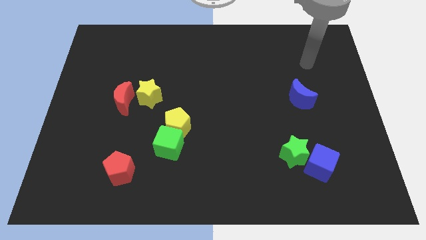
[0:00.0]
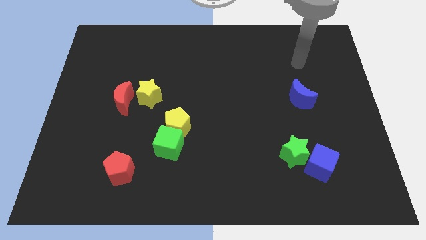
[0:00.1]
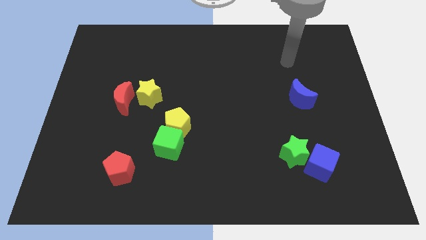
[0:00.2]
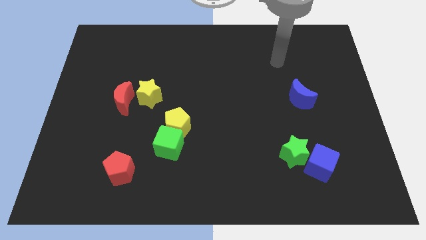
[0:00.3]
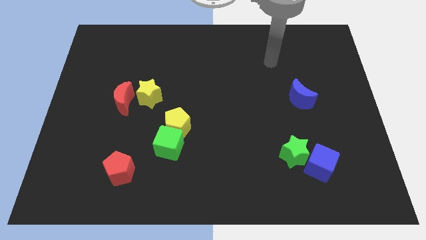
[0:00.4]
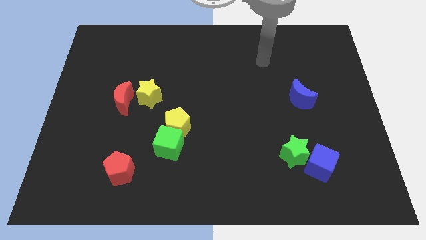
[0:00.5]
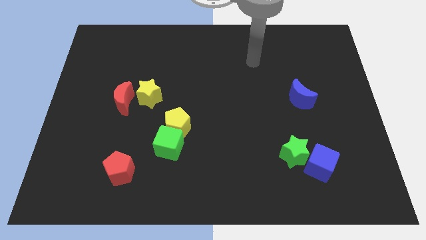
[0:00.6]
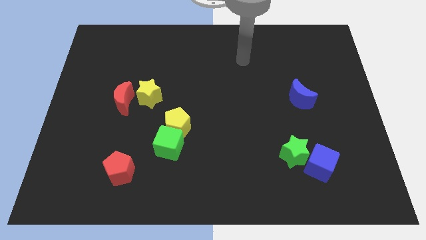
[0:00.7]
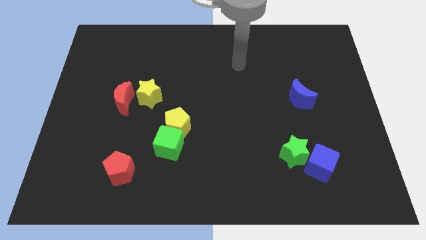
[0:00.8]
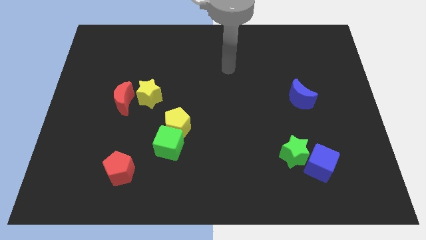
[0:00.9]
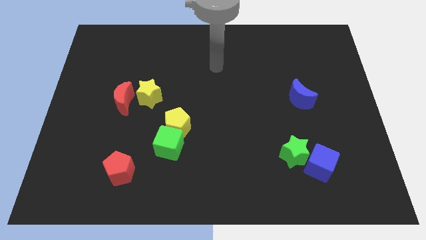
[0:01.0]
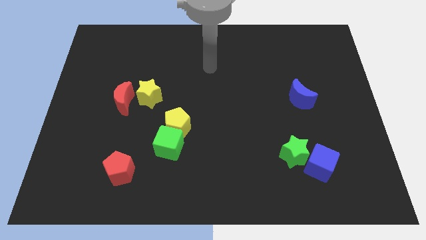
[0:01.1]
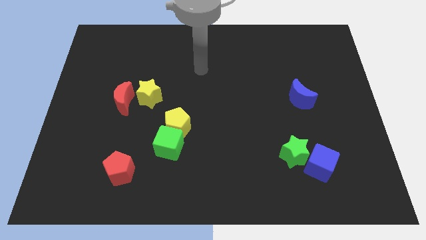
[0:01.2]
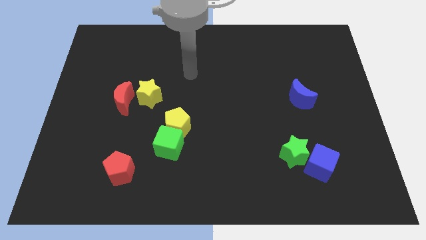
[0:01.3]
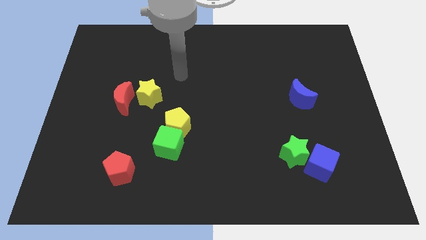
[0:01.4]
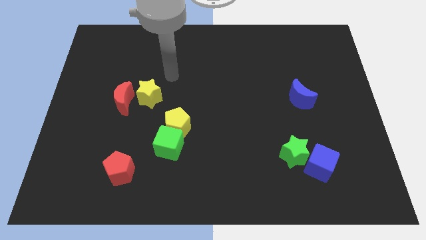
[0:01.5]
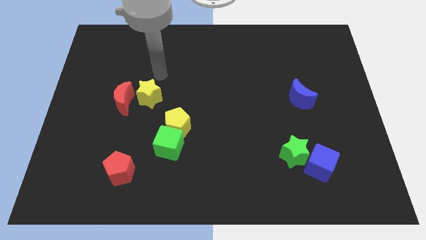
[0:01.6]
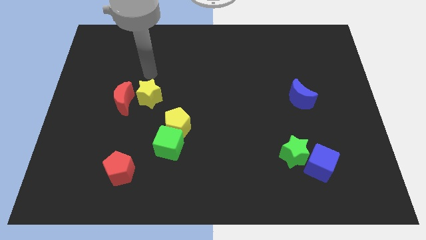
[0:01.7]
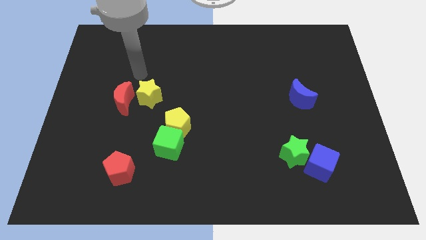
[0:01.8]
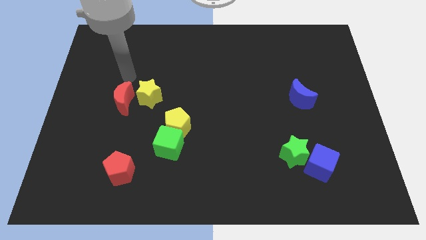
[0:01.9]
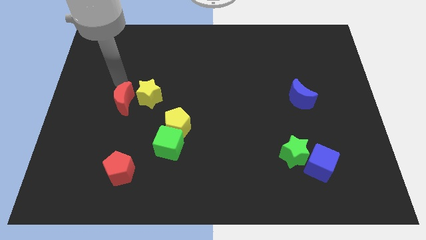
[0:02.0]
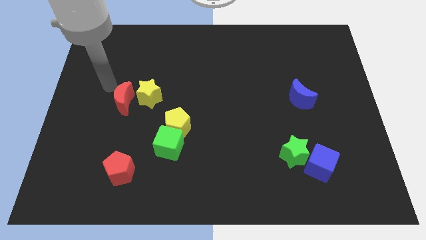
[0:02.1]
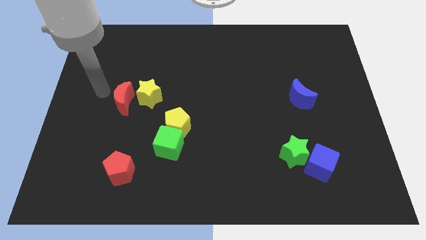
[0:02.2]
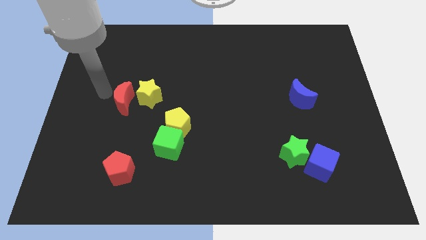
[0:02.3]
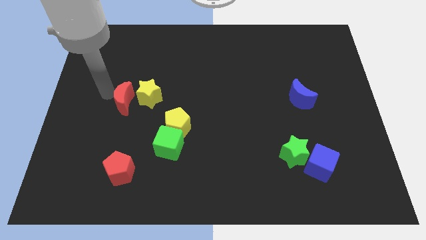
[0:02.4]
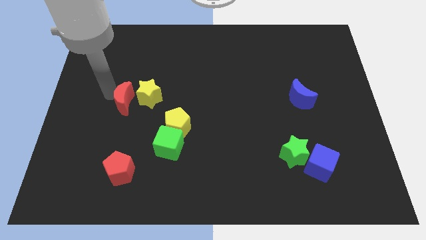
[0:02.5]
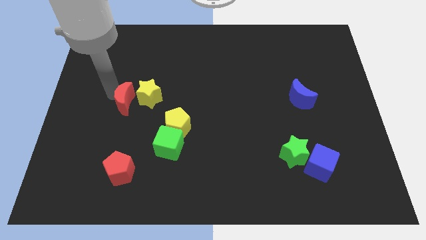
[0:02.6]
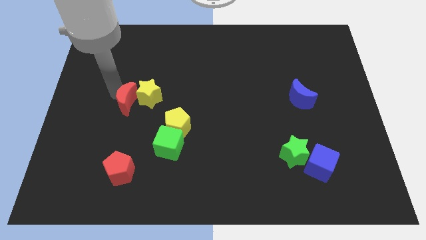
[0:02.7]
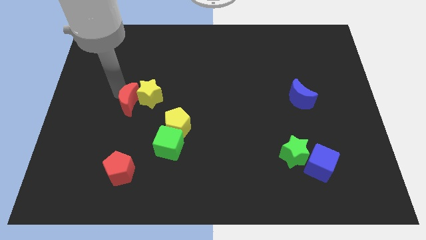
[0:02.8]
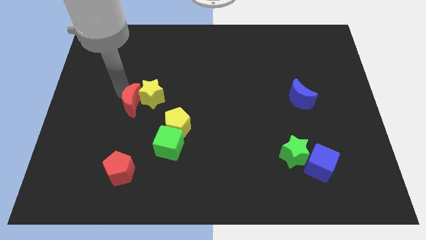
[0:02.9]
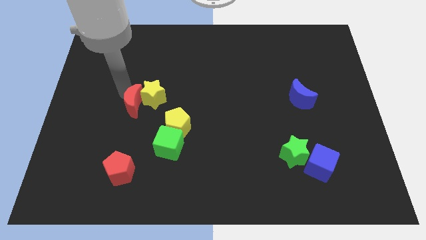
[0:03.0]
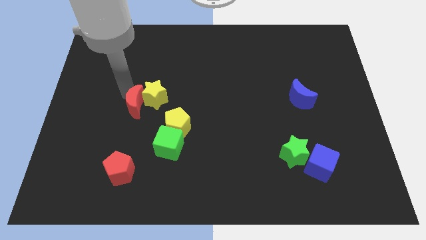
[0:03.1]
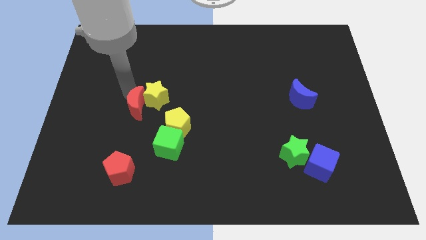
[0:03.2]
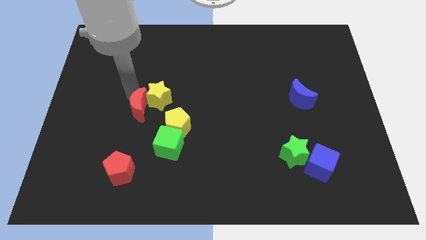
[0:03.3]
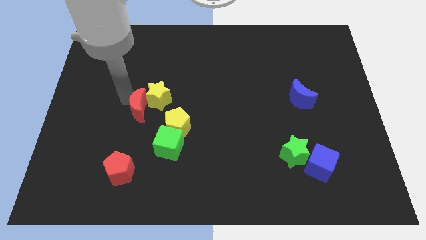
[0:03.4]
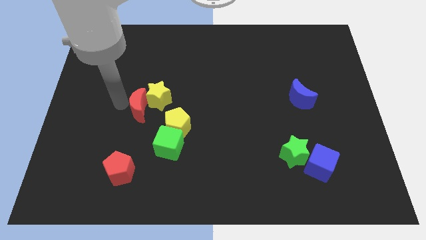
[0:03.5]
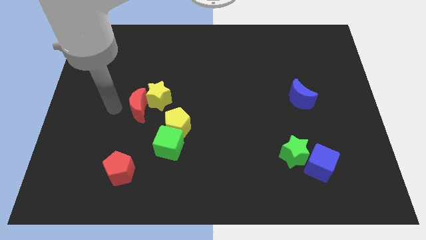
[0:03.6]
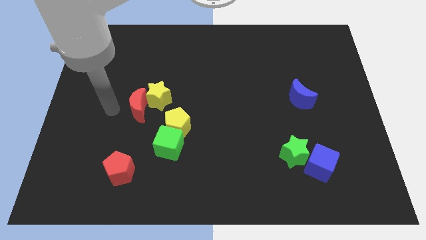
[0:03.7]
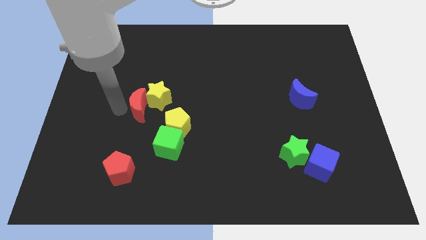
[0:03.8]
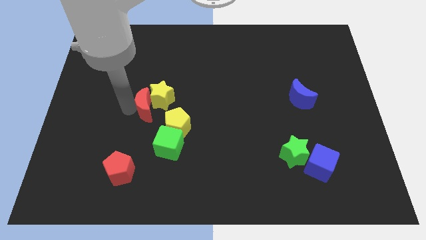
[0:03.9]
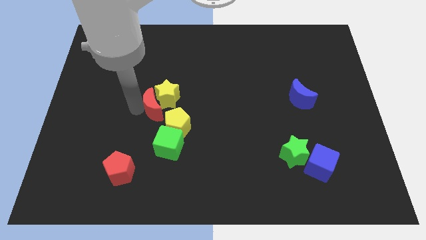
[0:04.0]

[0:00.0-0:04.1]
move the red moon to the right a little

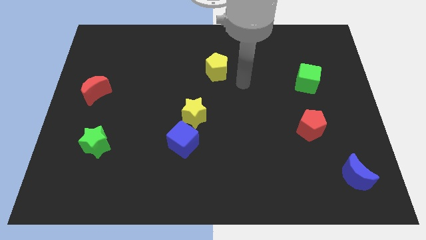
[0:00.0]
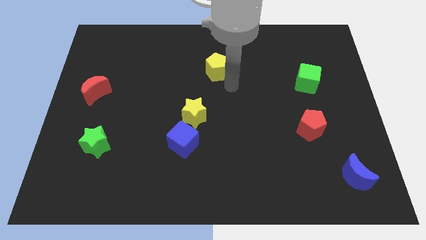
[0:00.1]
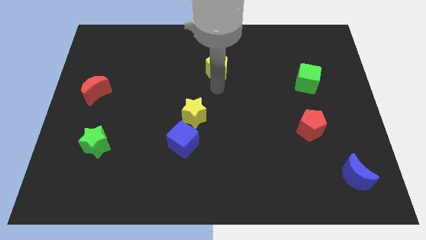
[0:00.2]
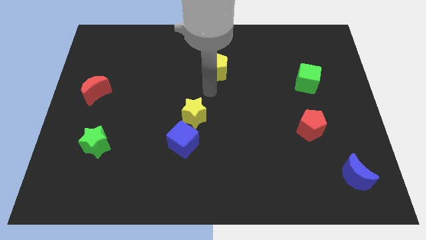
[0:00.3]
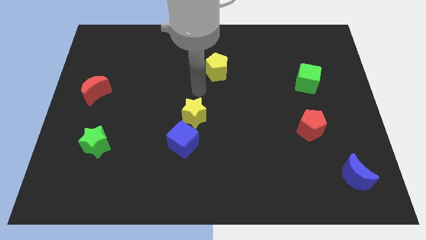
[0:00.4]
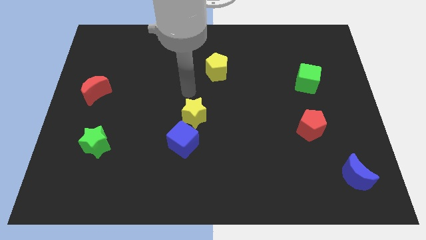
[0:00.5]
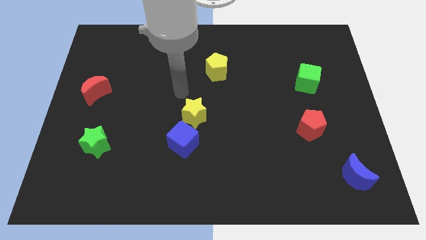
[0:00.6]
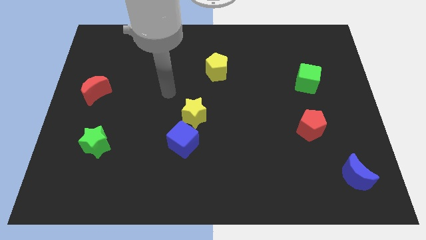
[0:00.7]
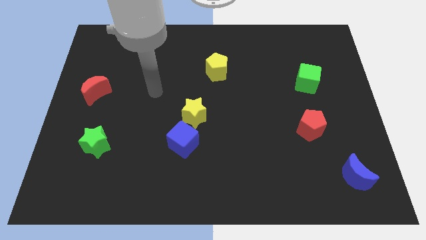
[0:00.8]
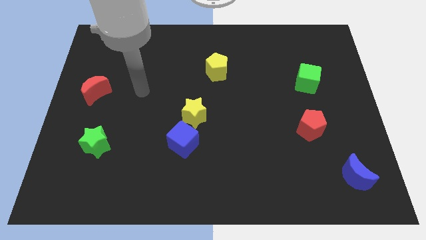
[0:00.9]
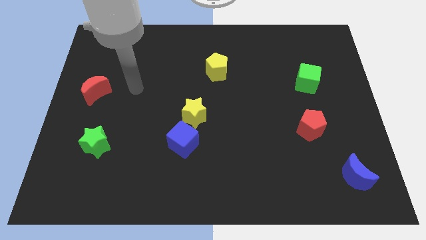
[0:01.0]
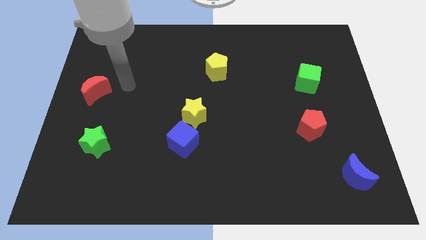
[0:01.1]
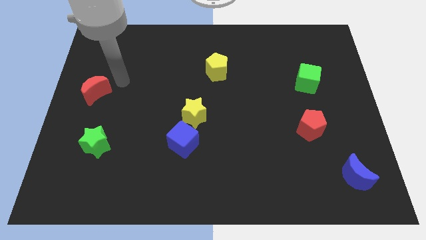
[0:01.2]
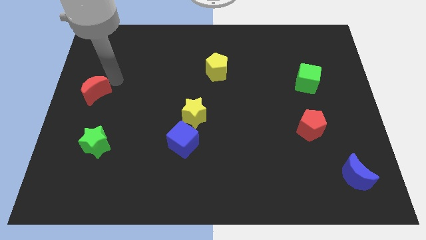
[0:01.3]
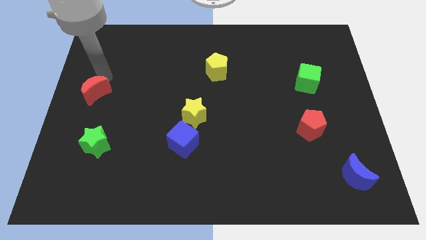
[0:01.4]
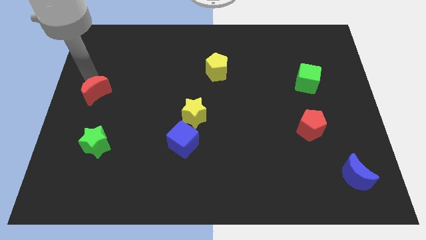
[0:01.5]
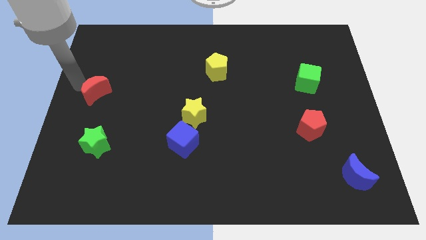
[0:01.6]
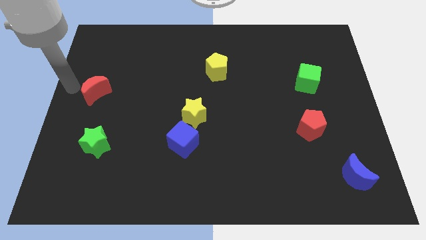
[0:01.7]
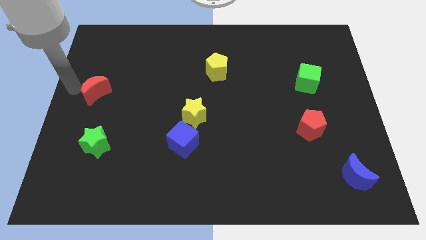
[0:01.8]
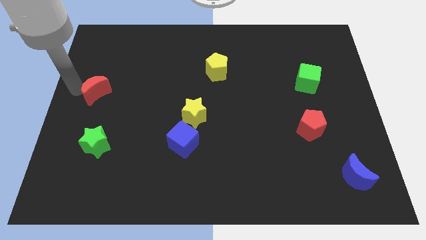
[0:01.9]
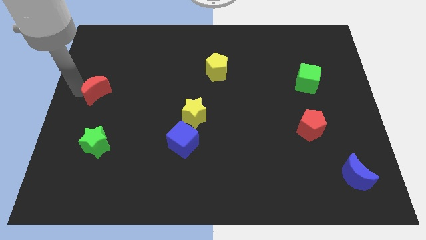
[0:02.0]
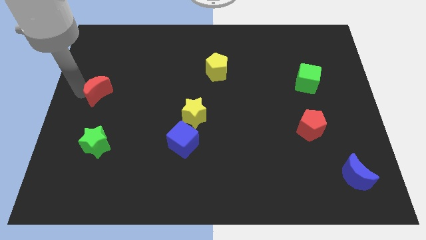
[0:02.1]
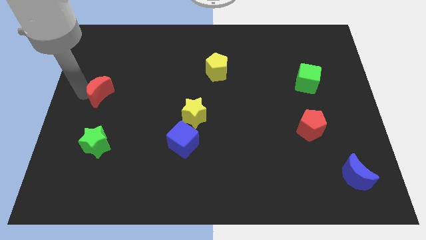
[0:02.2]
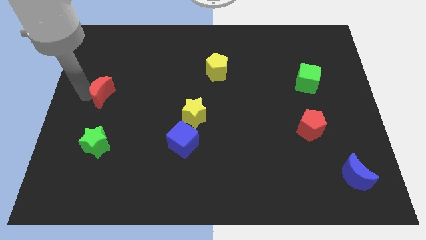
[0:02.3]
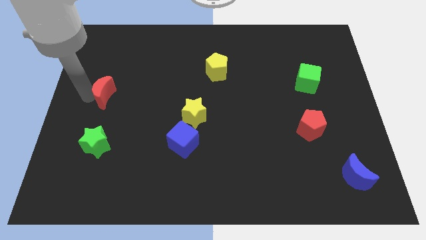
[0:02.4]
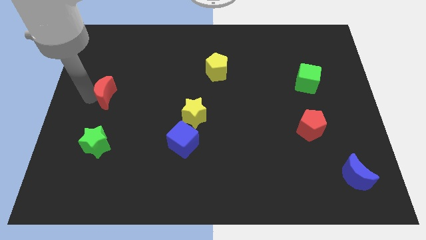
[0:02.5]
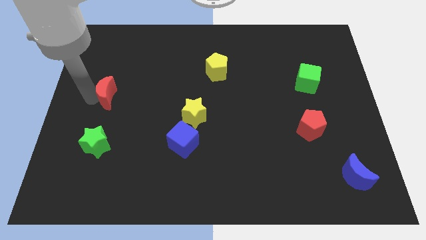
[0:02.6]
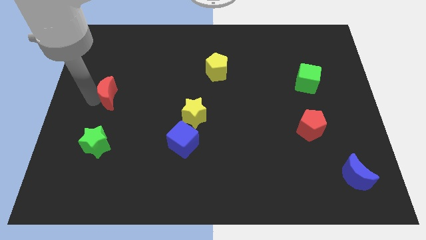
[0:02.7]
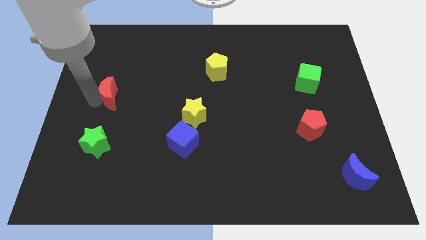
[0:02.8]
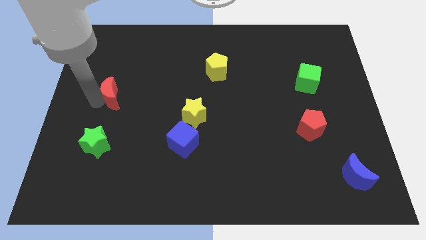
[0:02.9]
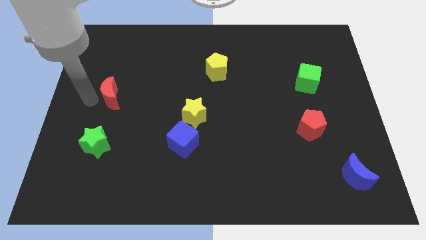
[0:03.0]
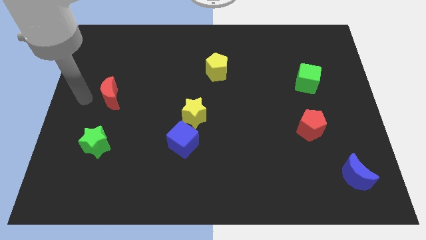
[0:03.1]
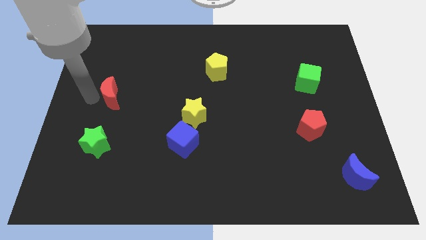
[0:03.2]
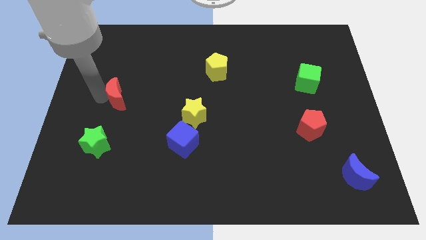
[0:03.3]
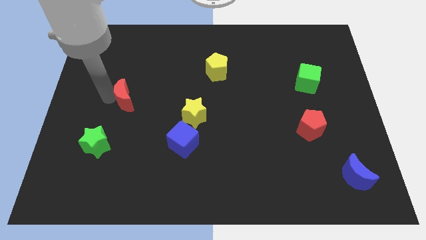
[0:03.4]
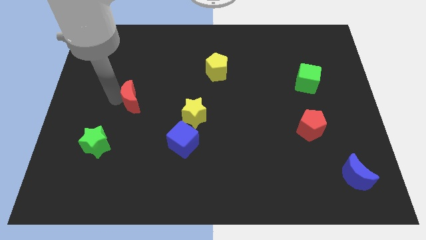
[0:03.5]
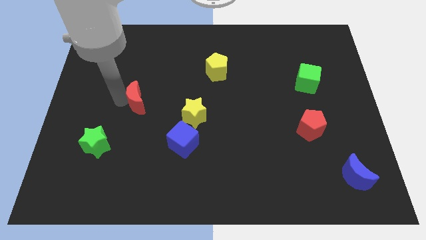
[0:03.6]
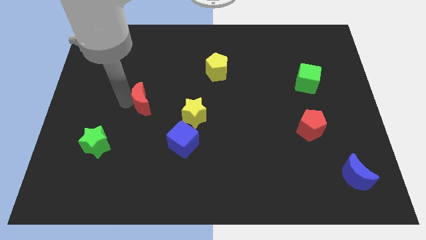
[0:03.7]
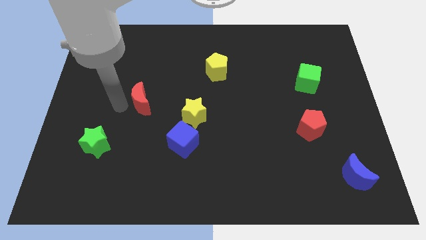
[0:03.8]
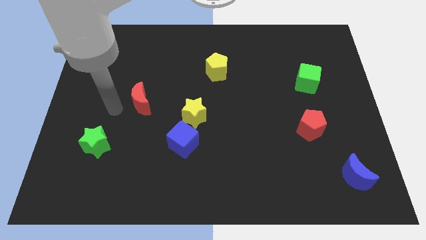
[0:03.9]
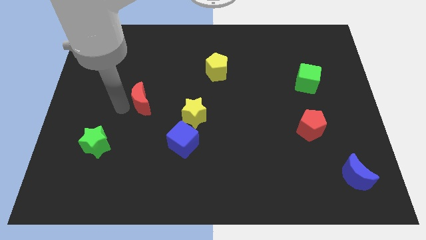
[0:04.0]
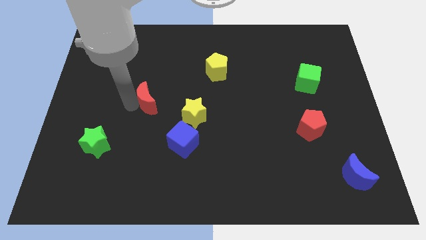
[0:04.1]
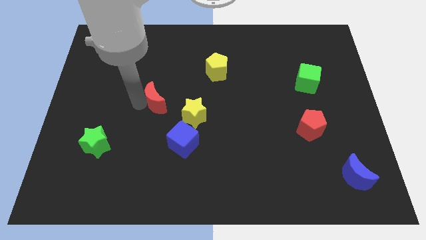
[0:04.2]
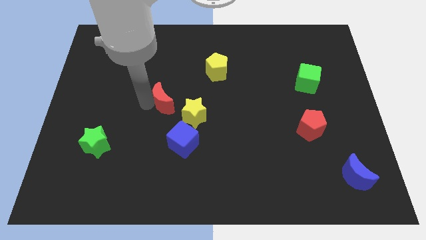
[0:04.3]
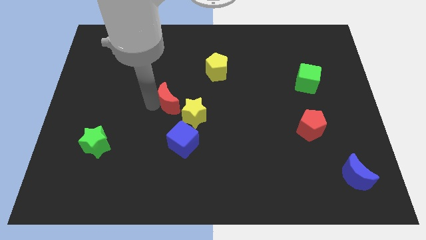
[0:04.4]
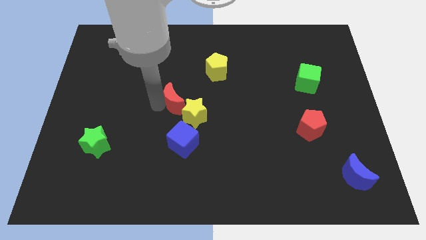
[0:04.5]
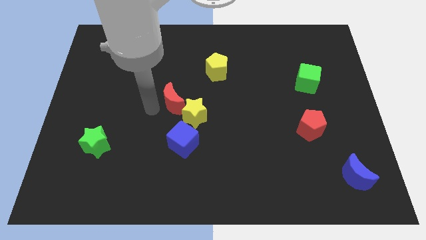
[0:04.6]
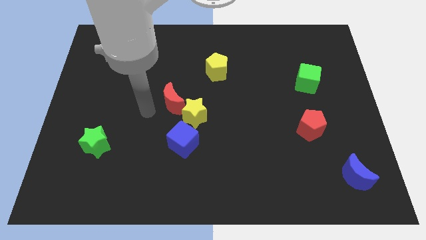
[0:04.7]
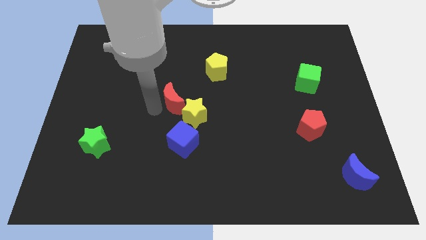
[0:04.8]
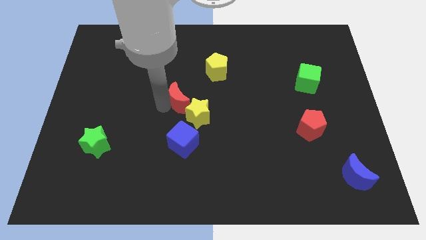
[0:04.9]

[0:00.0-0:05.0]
slide the red moon to the right
